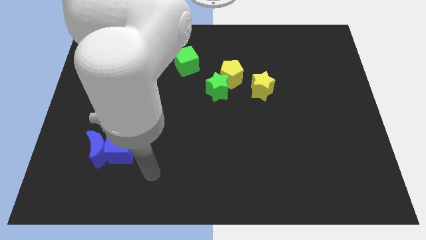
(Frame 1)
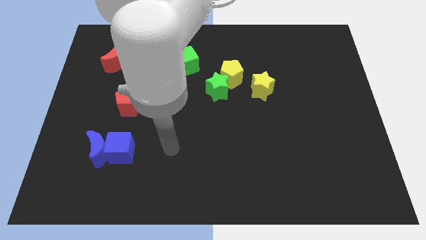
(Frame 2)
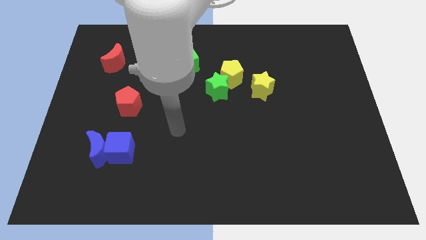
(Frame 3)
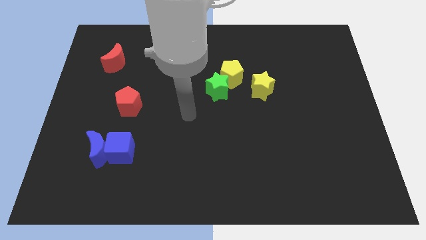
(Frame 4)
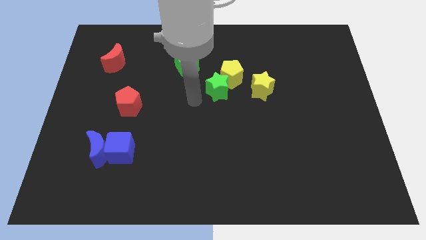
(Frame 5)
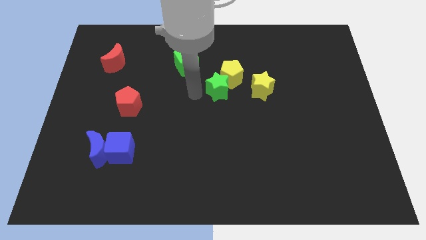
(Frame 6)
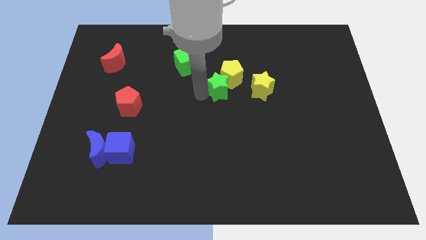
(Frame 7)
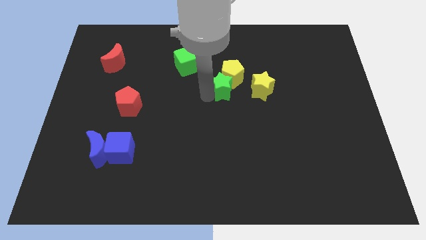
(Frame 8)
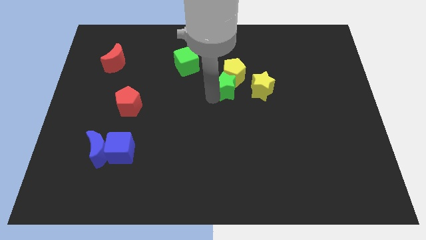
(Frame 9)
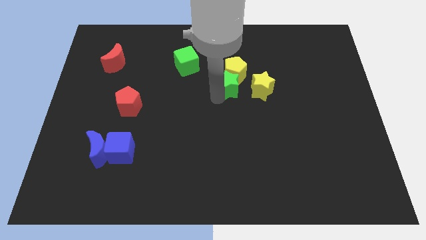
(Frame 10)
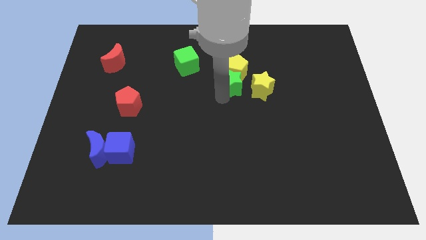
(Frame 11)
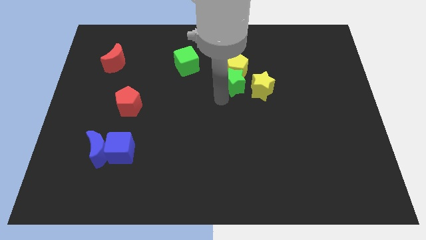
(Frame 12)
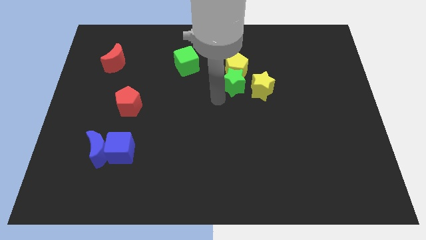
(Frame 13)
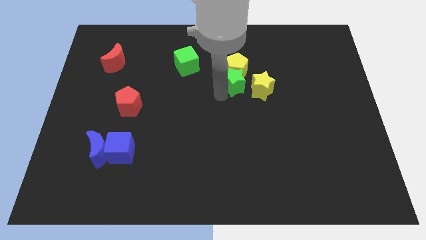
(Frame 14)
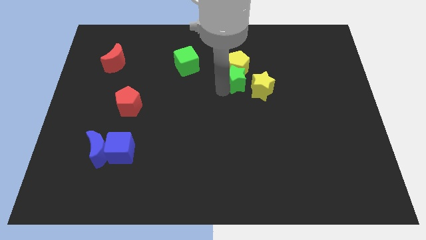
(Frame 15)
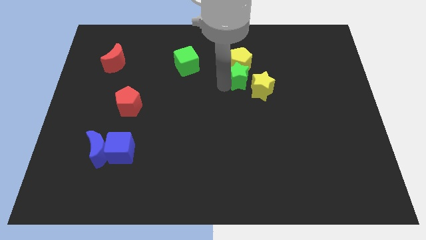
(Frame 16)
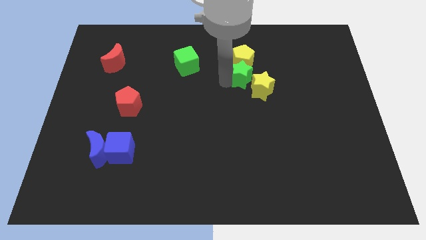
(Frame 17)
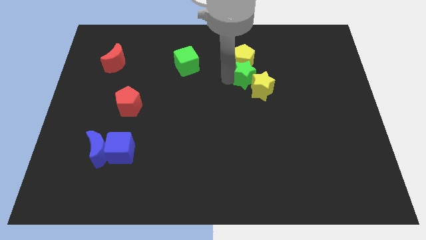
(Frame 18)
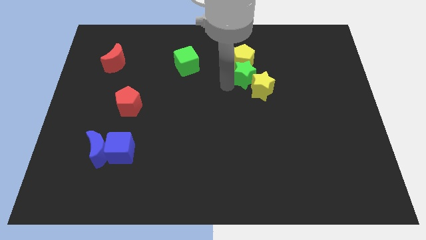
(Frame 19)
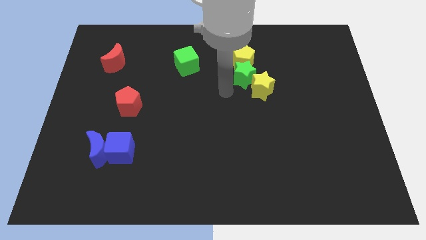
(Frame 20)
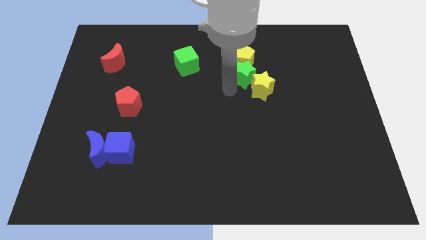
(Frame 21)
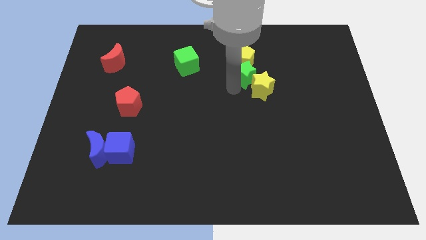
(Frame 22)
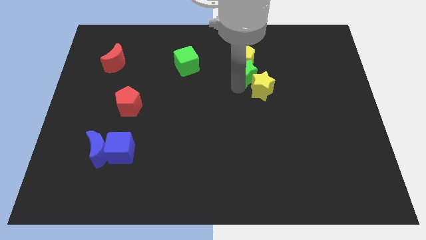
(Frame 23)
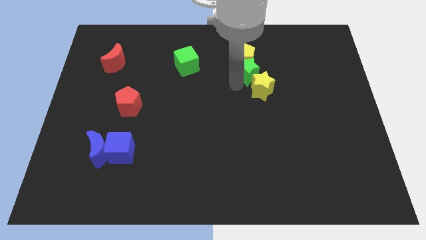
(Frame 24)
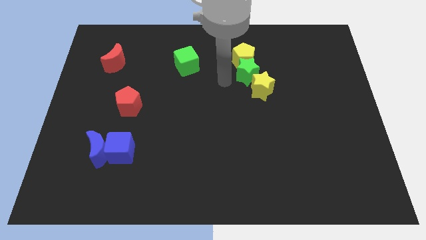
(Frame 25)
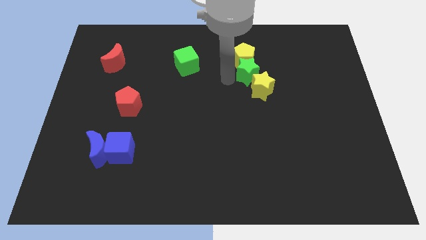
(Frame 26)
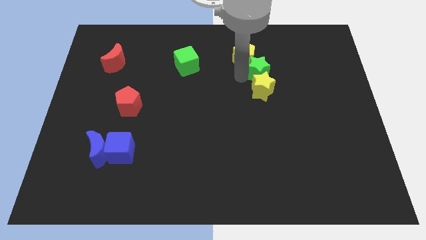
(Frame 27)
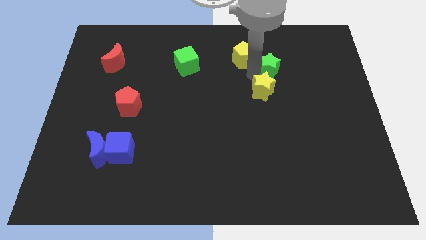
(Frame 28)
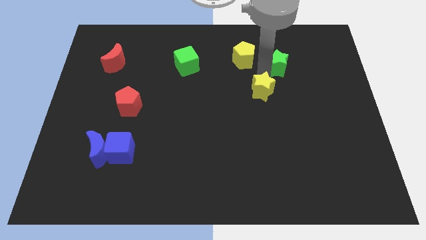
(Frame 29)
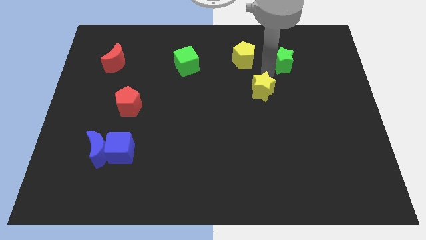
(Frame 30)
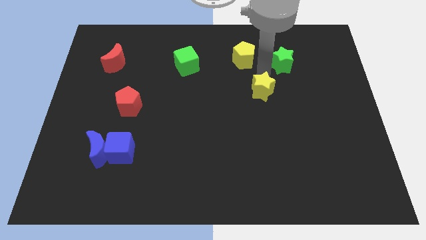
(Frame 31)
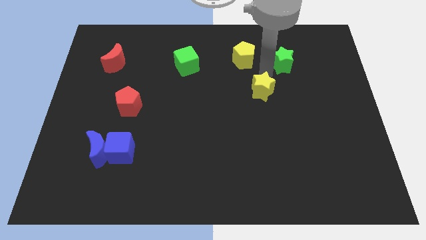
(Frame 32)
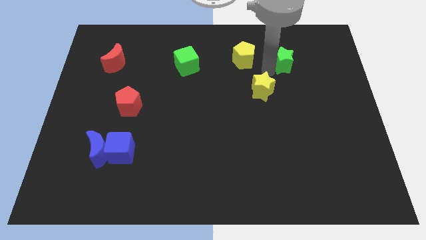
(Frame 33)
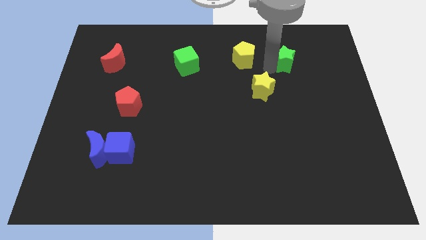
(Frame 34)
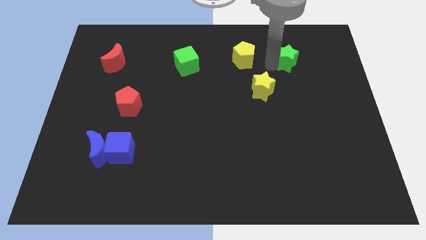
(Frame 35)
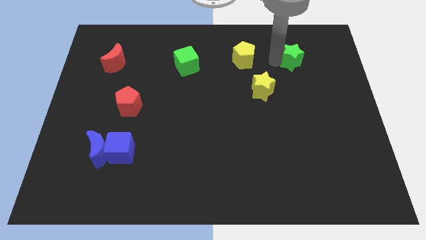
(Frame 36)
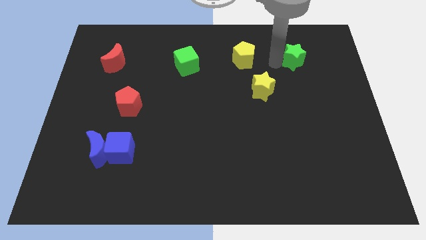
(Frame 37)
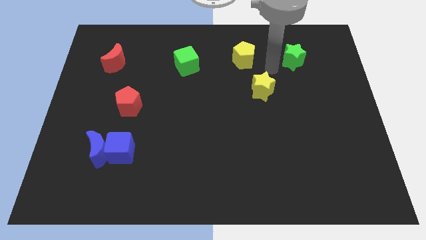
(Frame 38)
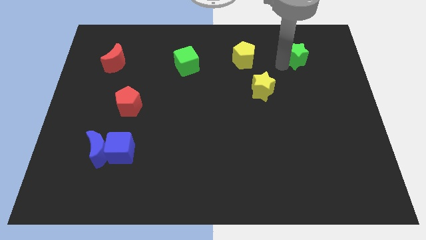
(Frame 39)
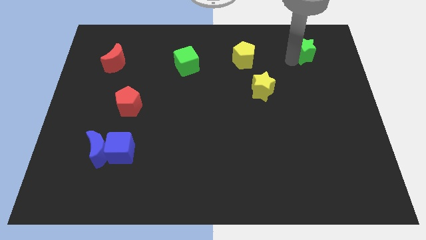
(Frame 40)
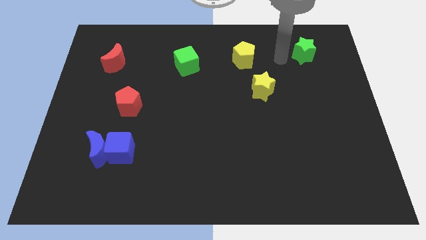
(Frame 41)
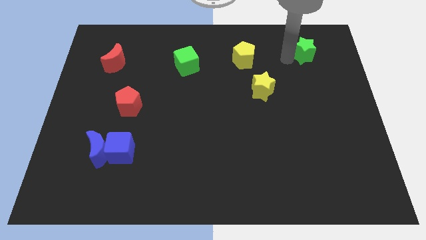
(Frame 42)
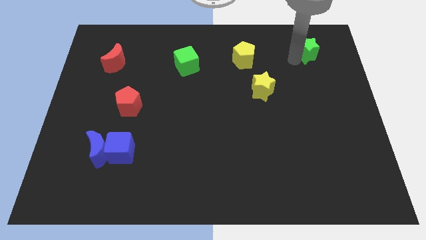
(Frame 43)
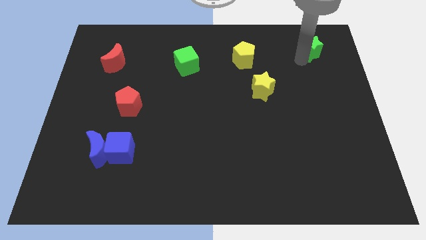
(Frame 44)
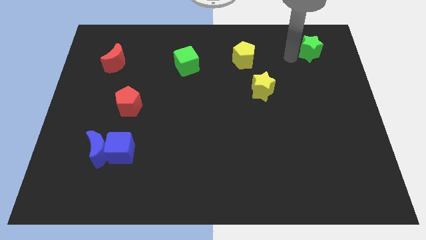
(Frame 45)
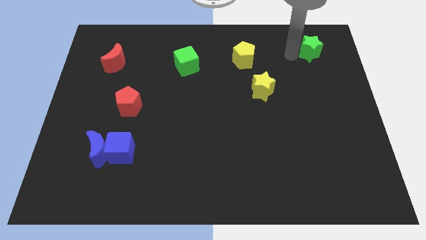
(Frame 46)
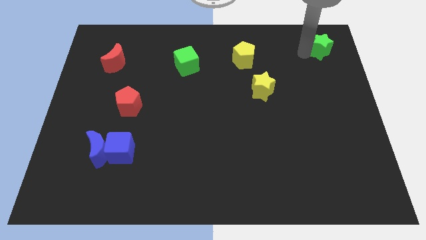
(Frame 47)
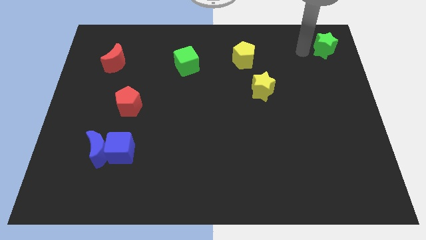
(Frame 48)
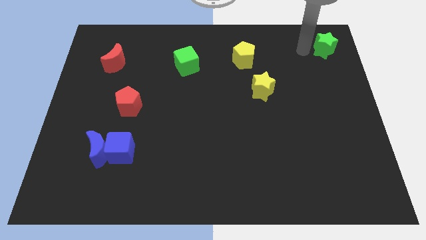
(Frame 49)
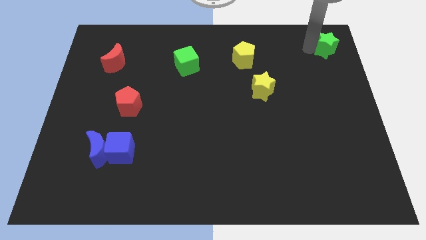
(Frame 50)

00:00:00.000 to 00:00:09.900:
put the green star to the top right

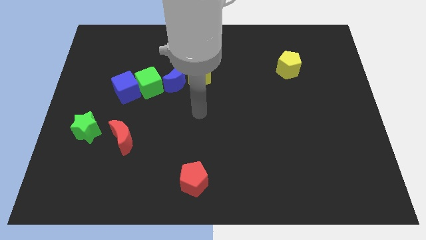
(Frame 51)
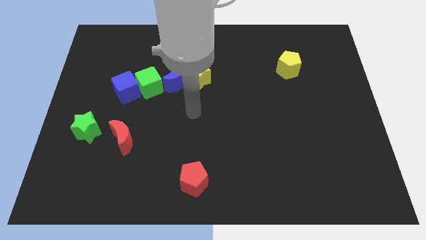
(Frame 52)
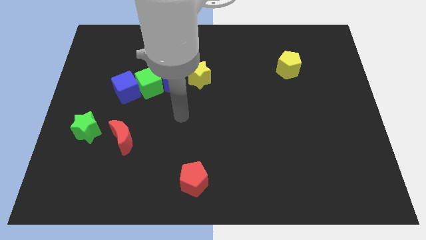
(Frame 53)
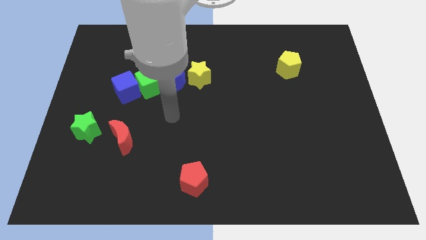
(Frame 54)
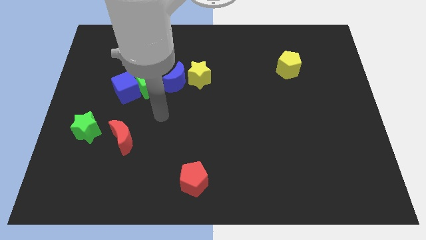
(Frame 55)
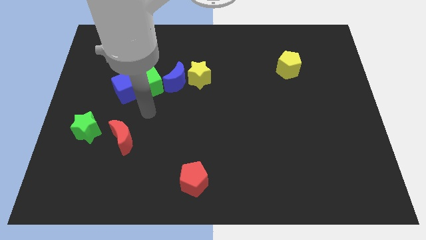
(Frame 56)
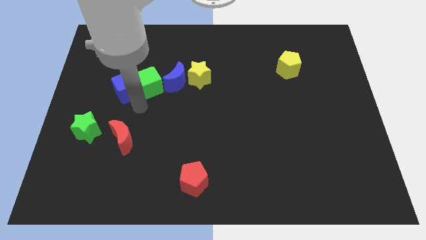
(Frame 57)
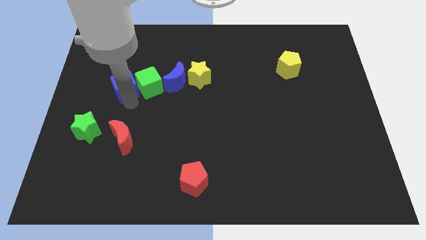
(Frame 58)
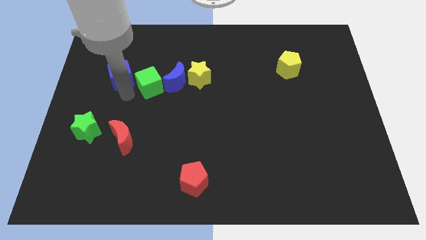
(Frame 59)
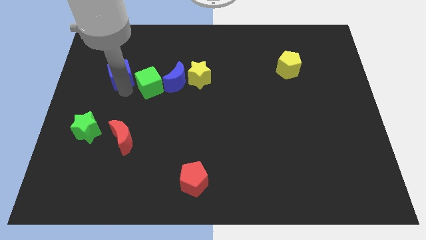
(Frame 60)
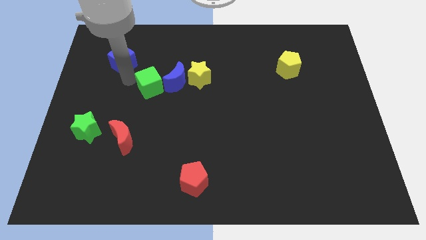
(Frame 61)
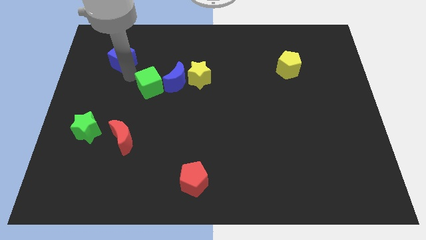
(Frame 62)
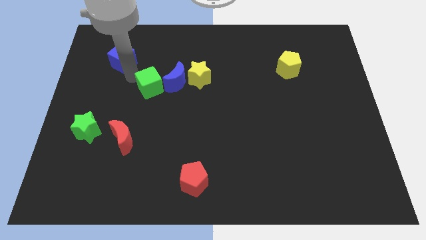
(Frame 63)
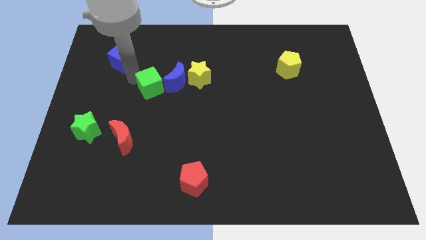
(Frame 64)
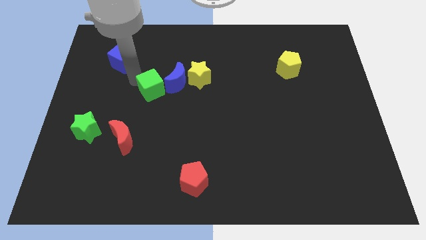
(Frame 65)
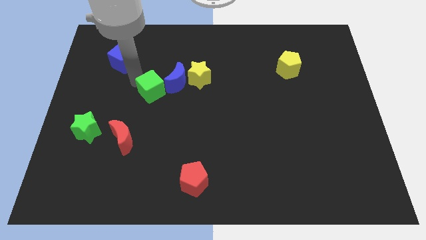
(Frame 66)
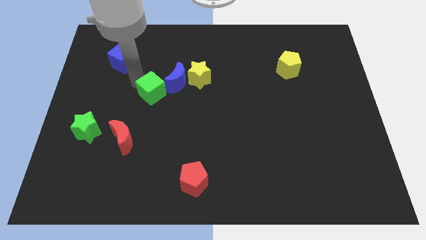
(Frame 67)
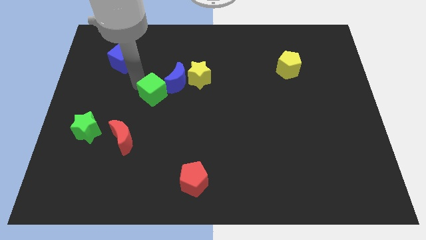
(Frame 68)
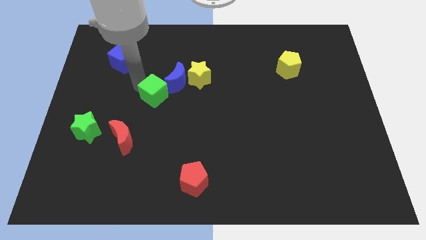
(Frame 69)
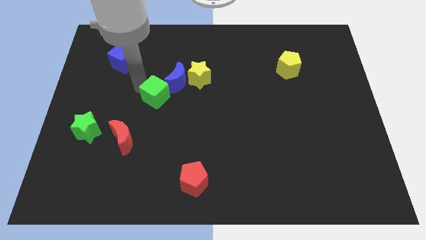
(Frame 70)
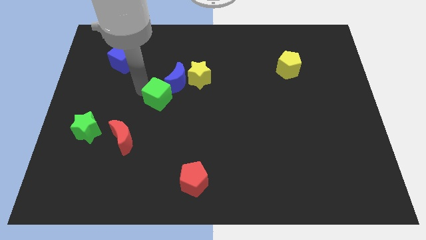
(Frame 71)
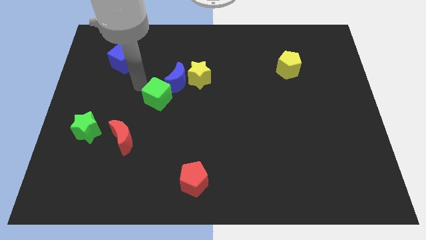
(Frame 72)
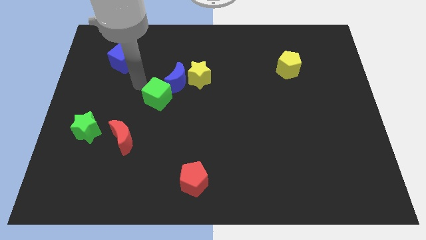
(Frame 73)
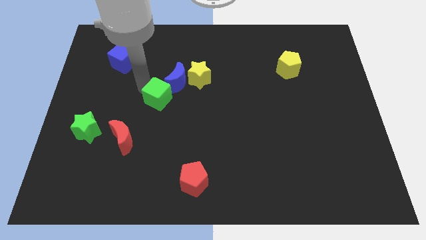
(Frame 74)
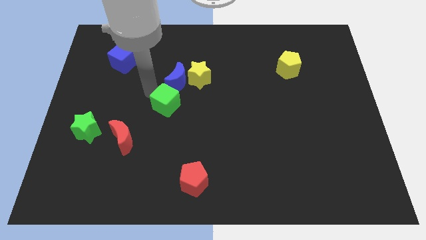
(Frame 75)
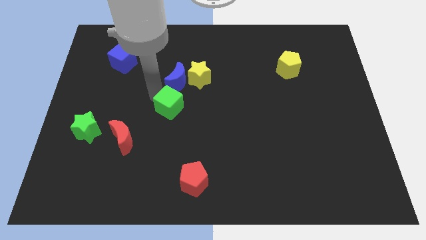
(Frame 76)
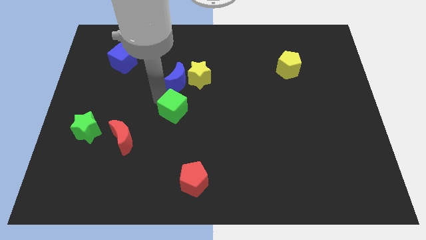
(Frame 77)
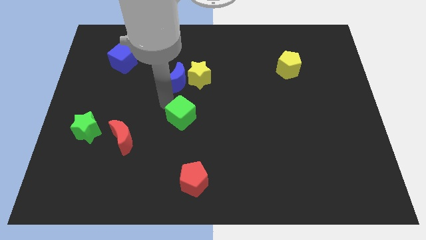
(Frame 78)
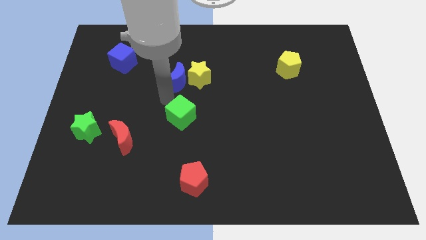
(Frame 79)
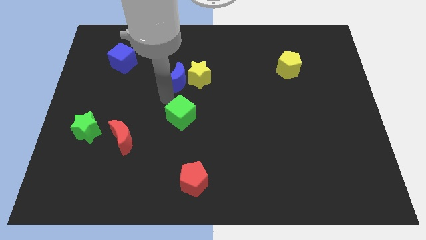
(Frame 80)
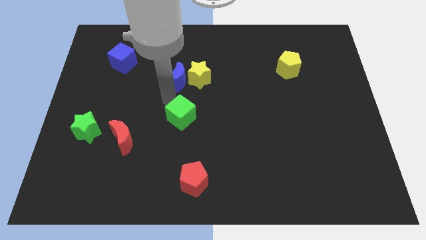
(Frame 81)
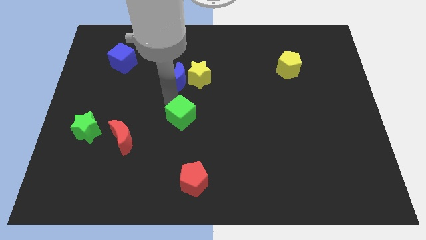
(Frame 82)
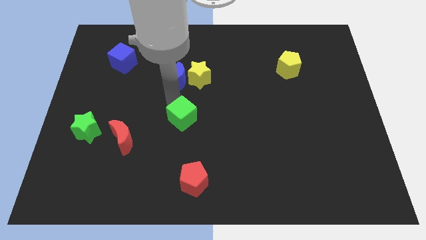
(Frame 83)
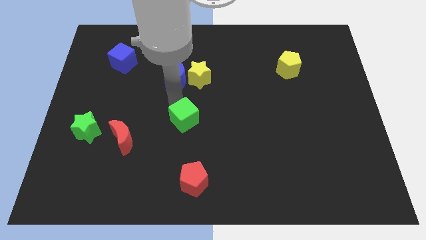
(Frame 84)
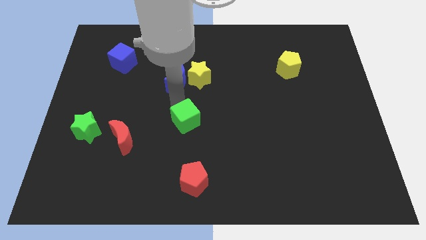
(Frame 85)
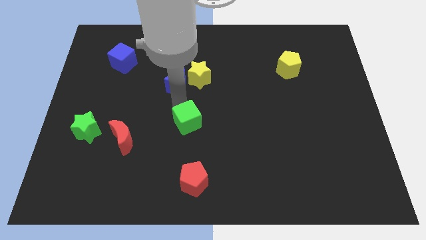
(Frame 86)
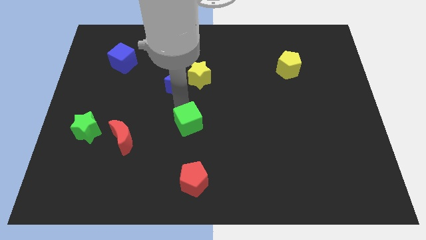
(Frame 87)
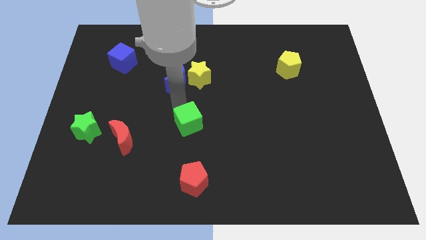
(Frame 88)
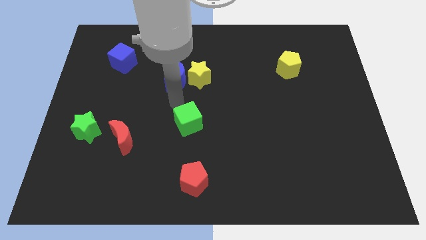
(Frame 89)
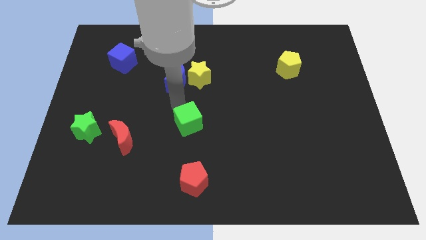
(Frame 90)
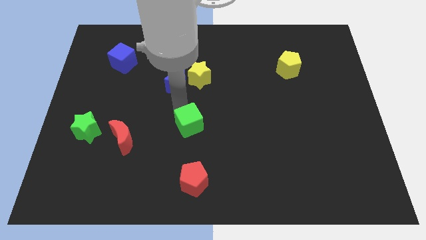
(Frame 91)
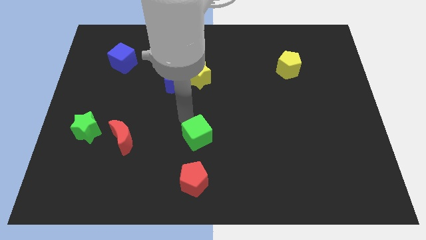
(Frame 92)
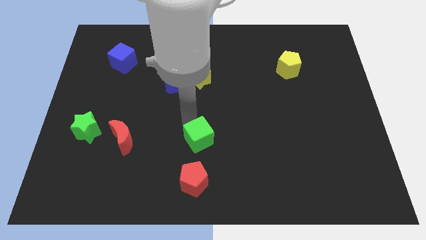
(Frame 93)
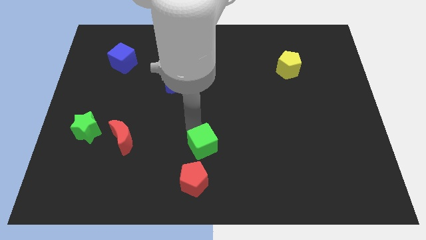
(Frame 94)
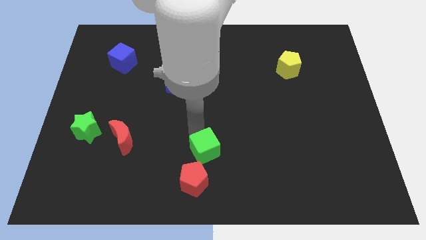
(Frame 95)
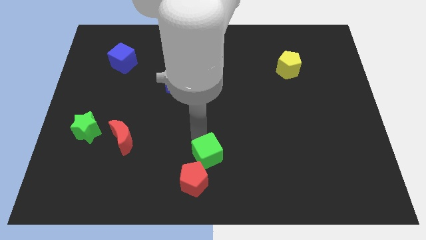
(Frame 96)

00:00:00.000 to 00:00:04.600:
move the green cube to the bottom side
